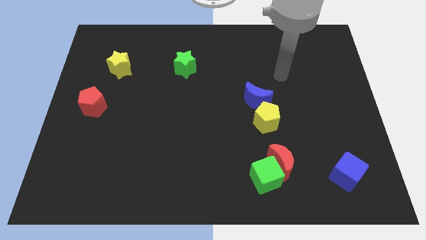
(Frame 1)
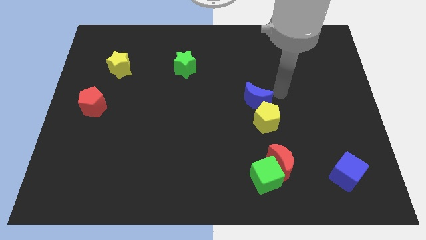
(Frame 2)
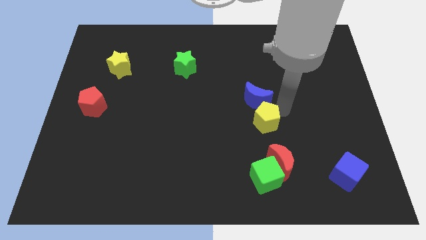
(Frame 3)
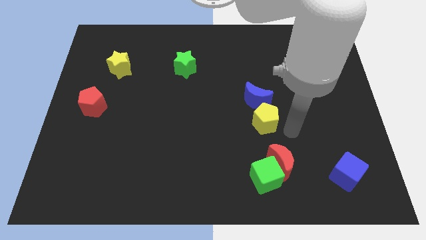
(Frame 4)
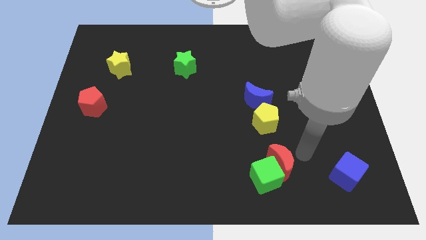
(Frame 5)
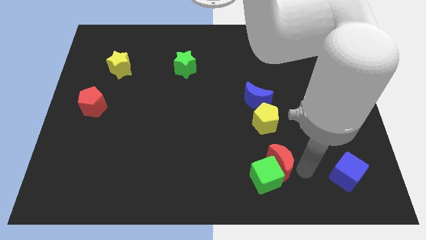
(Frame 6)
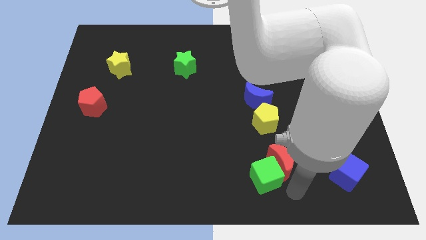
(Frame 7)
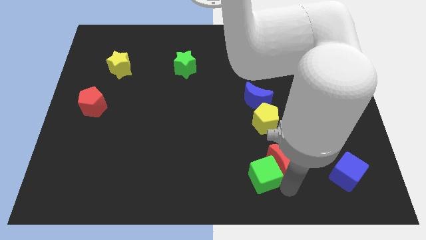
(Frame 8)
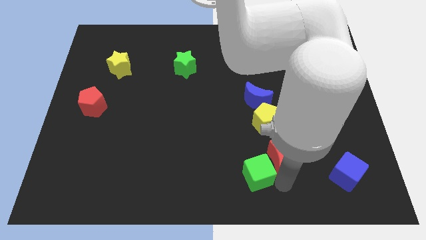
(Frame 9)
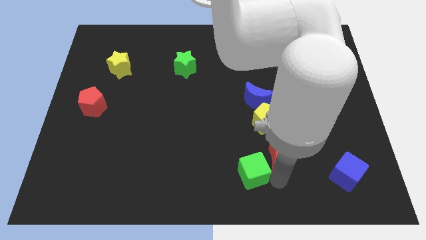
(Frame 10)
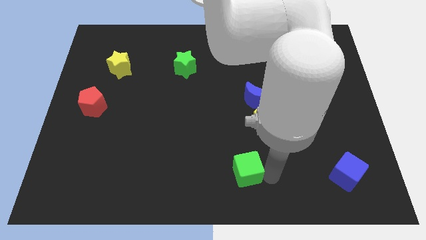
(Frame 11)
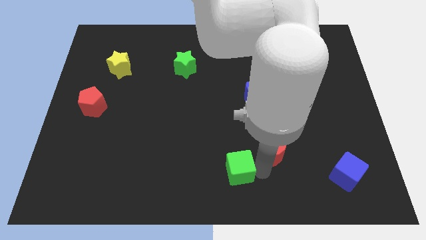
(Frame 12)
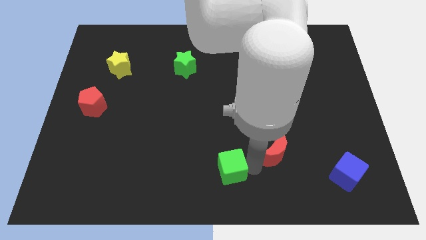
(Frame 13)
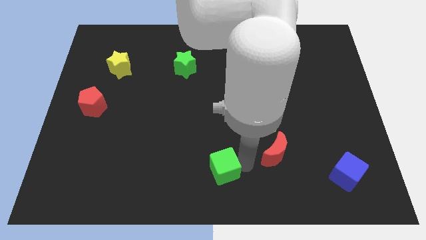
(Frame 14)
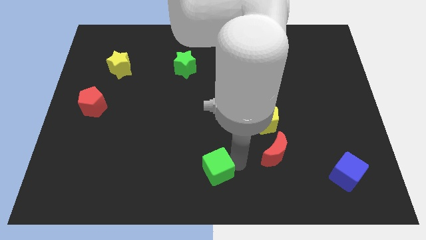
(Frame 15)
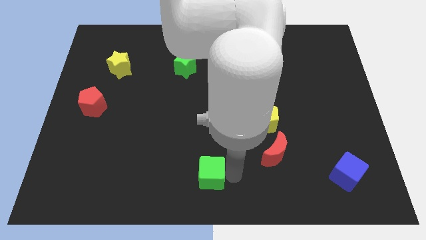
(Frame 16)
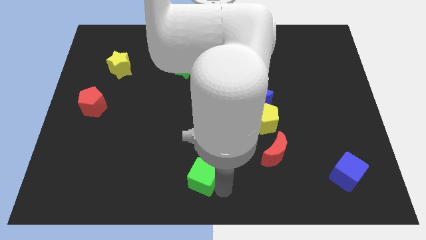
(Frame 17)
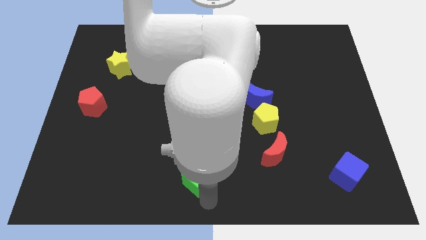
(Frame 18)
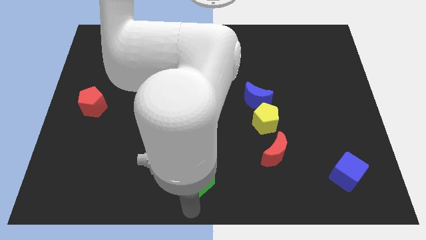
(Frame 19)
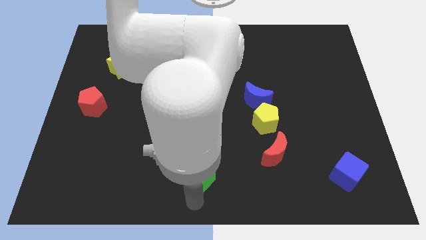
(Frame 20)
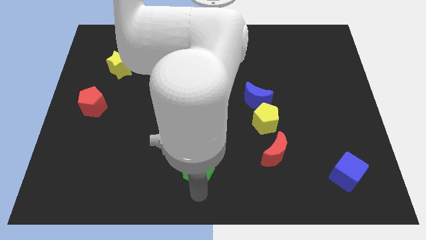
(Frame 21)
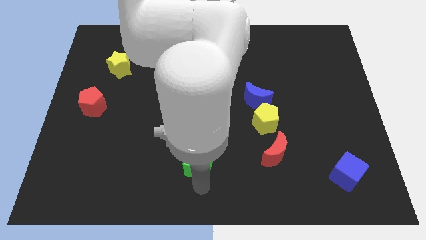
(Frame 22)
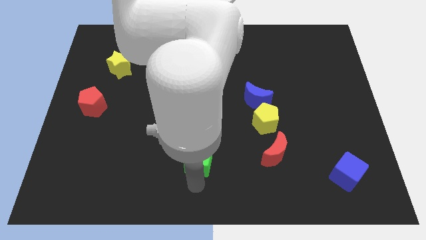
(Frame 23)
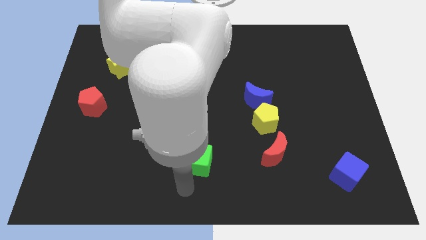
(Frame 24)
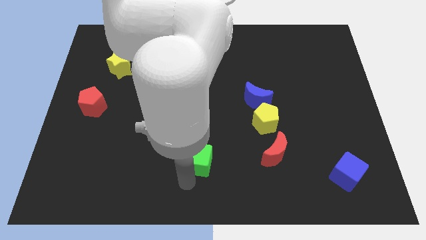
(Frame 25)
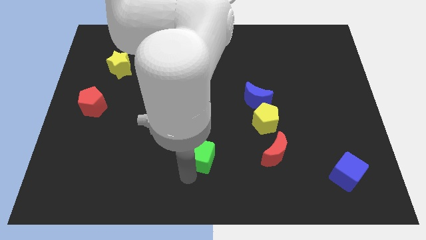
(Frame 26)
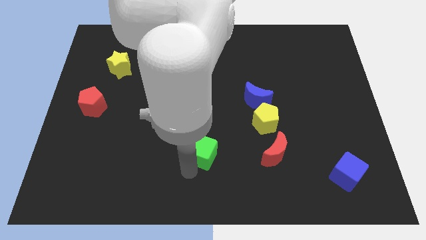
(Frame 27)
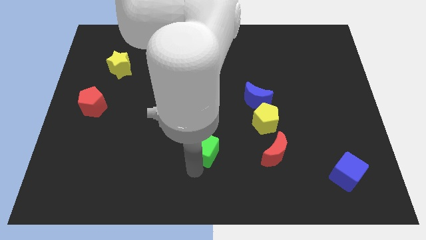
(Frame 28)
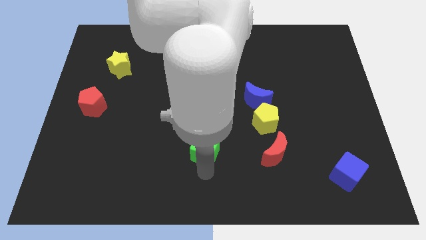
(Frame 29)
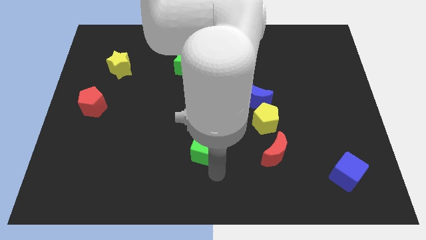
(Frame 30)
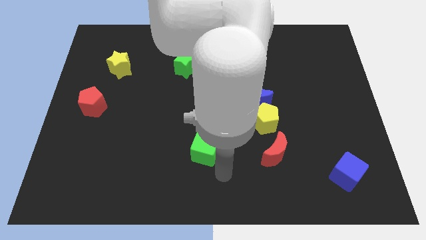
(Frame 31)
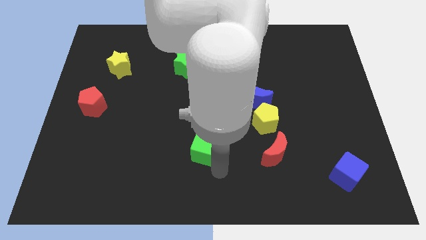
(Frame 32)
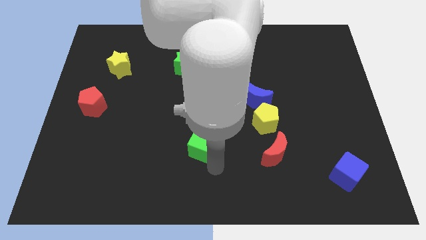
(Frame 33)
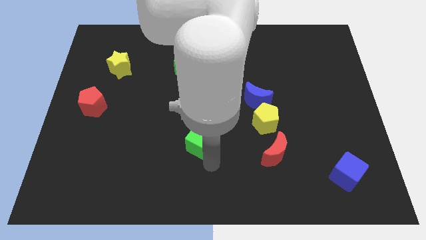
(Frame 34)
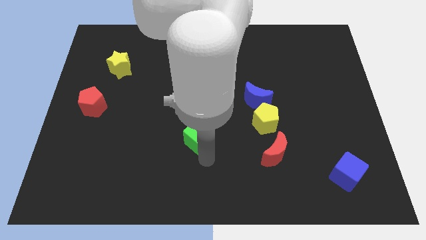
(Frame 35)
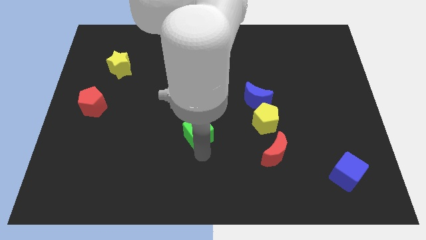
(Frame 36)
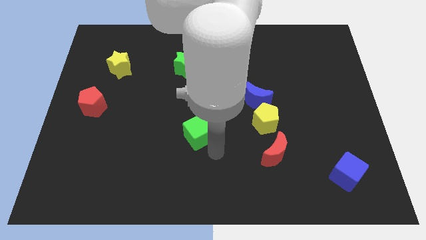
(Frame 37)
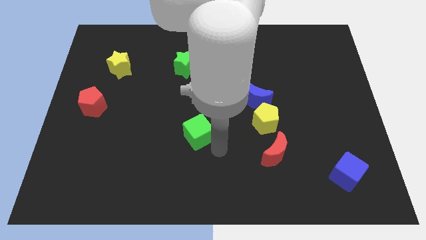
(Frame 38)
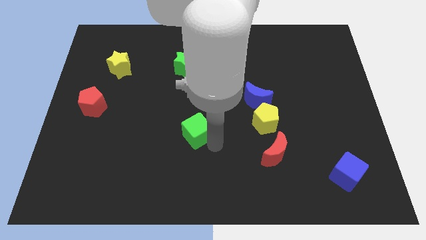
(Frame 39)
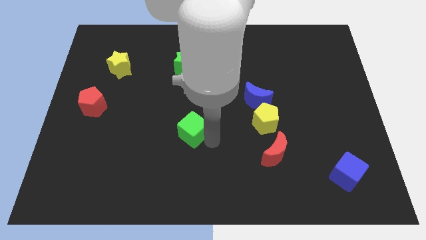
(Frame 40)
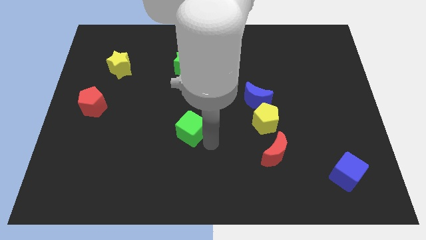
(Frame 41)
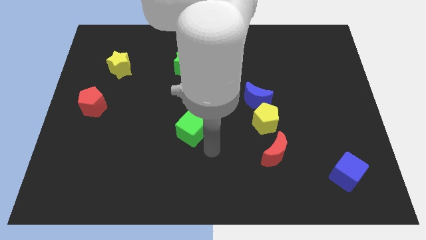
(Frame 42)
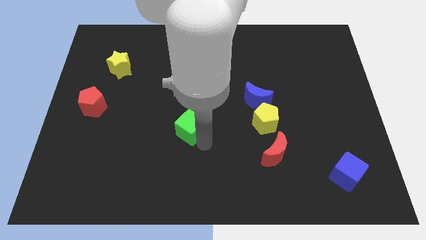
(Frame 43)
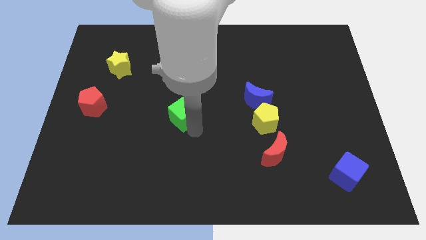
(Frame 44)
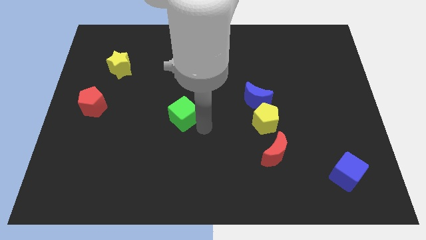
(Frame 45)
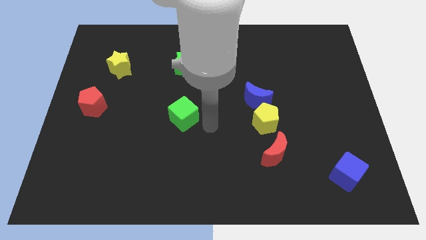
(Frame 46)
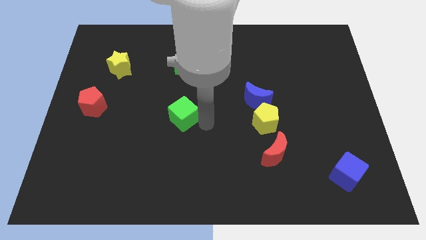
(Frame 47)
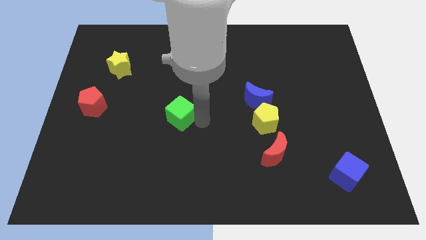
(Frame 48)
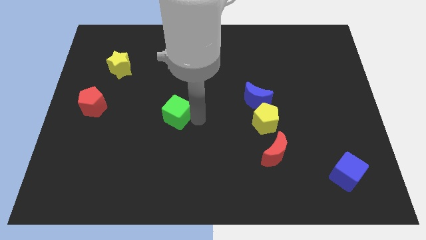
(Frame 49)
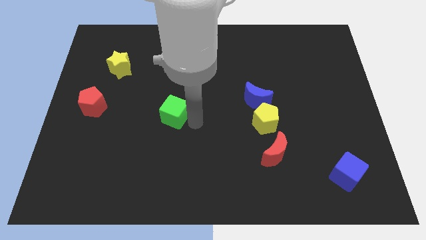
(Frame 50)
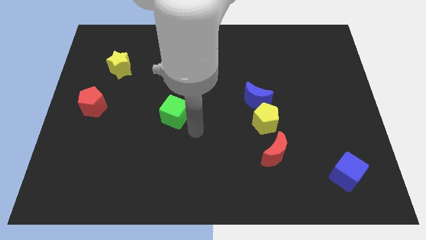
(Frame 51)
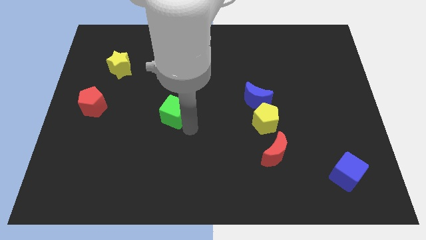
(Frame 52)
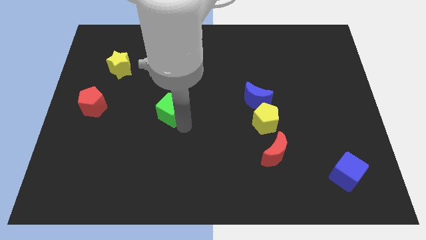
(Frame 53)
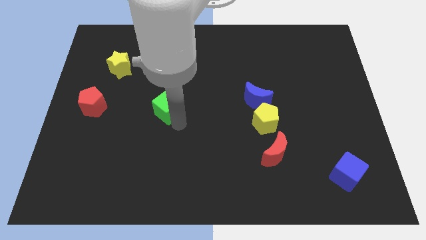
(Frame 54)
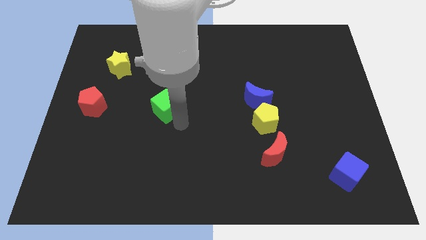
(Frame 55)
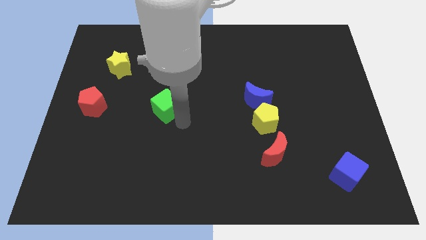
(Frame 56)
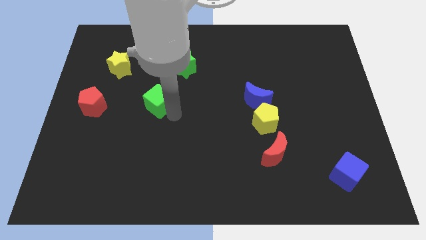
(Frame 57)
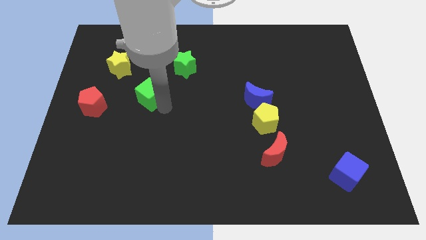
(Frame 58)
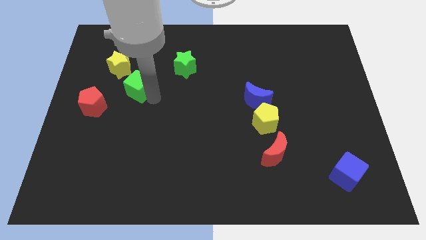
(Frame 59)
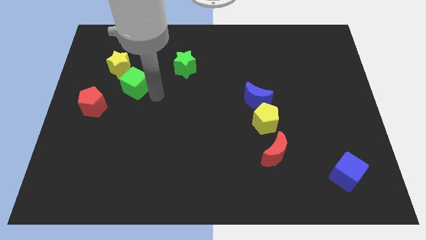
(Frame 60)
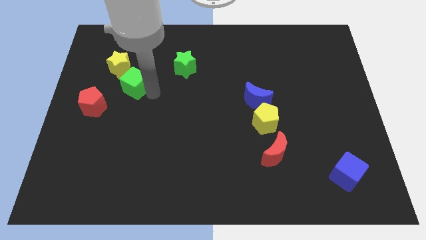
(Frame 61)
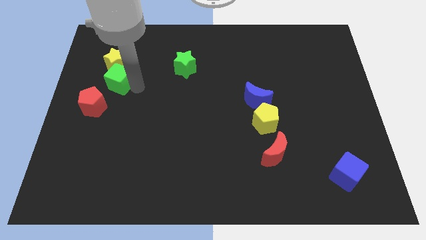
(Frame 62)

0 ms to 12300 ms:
move the green cube to the top of the red pentagon

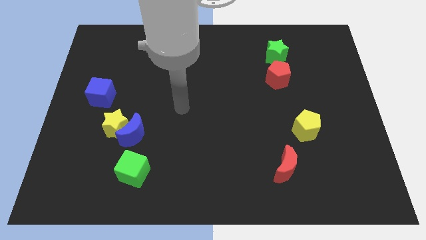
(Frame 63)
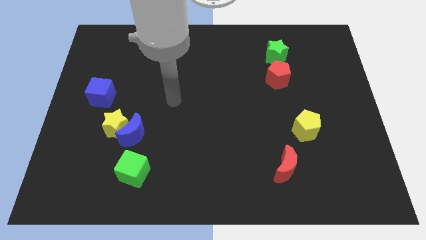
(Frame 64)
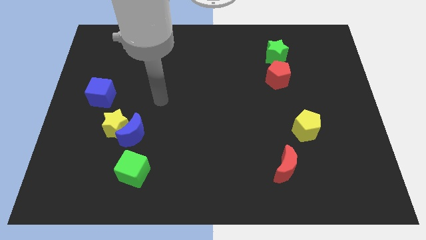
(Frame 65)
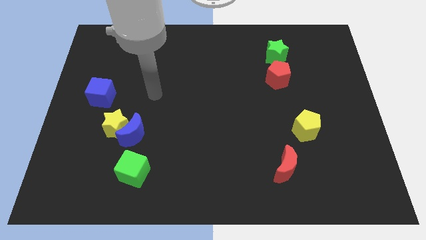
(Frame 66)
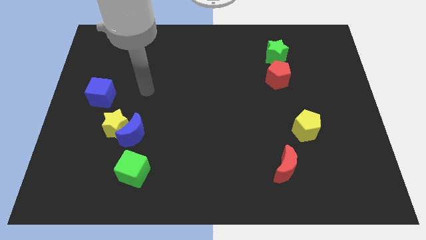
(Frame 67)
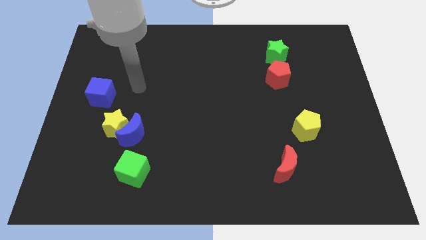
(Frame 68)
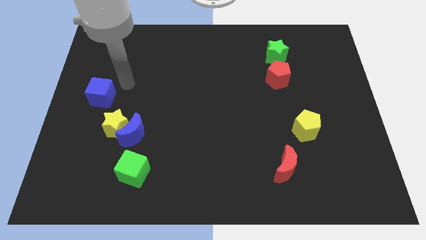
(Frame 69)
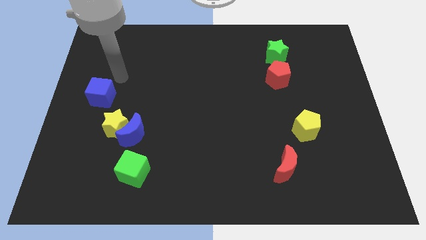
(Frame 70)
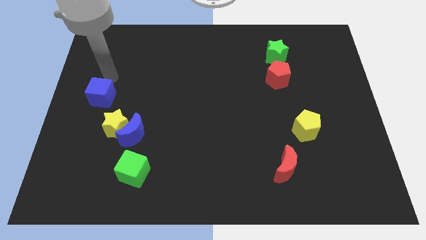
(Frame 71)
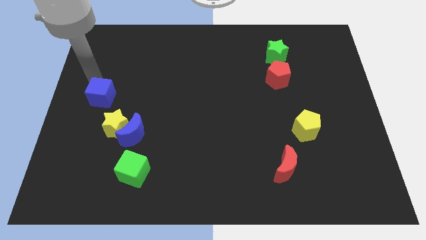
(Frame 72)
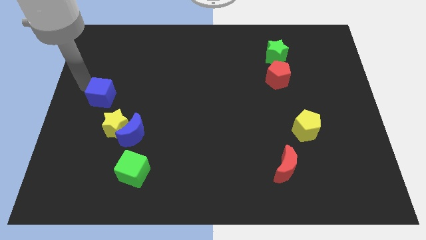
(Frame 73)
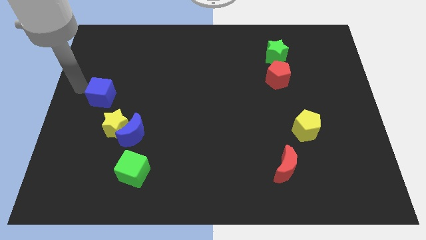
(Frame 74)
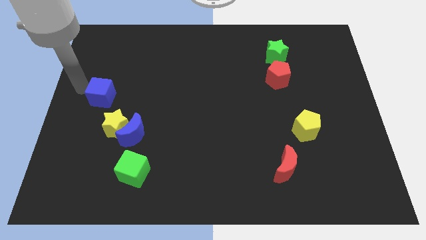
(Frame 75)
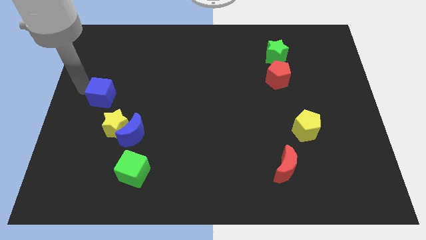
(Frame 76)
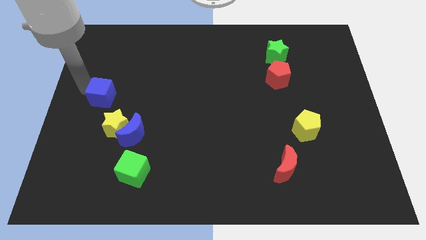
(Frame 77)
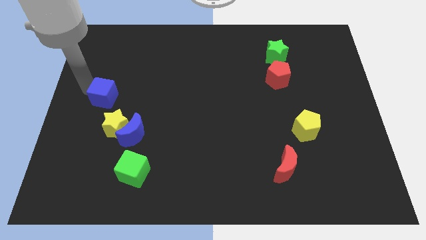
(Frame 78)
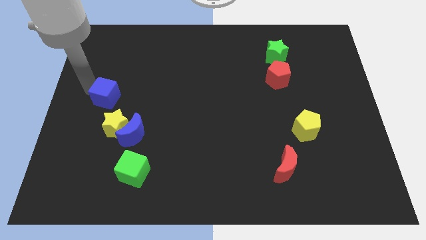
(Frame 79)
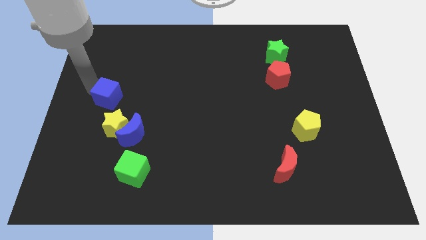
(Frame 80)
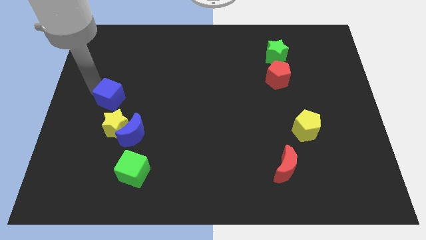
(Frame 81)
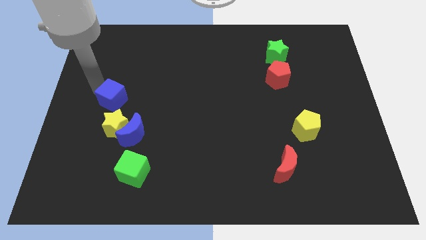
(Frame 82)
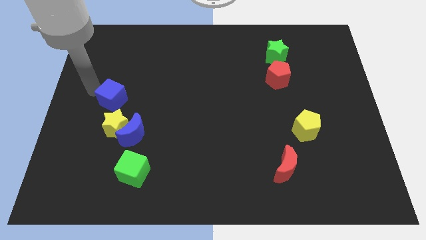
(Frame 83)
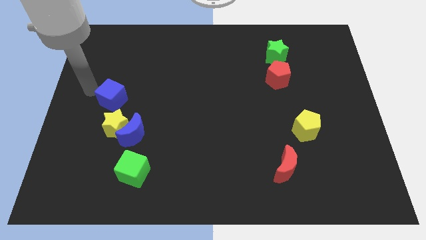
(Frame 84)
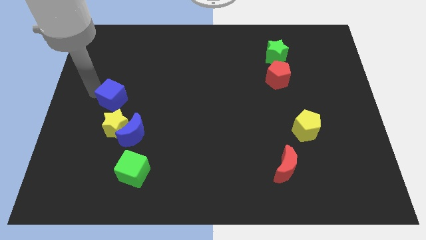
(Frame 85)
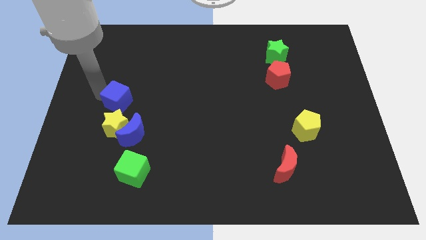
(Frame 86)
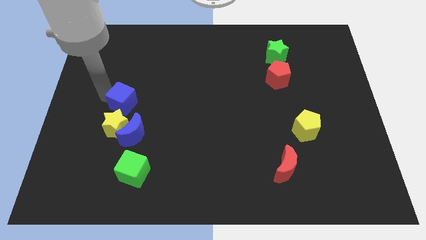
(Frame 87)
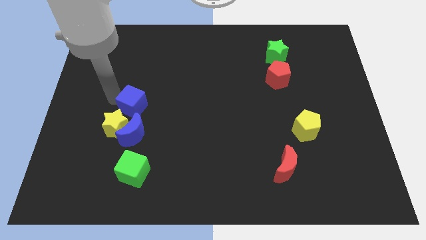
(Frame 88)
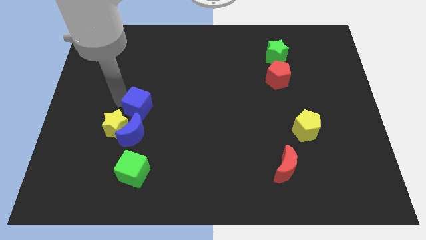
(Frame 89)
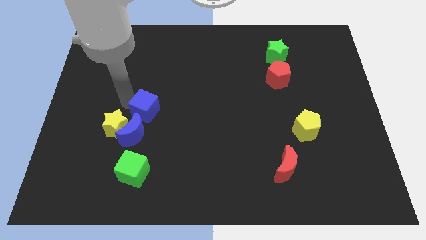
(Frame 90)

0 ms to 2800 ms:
put the blue cube to the top right of the blue moon
